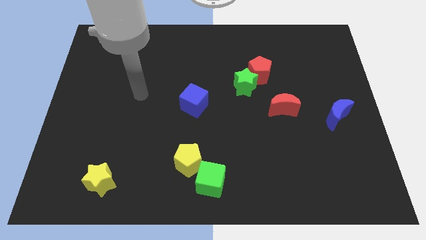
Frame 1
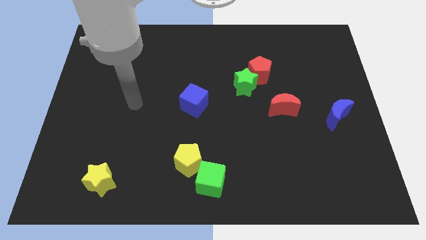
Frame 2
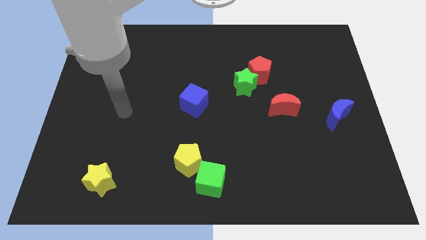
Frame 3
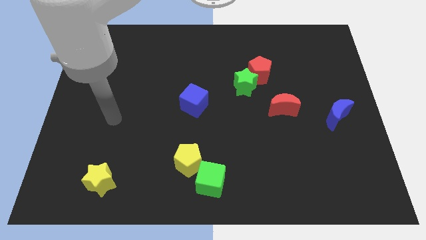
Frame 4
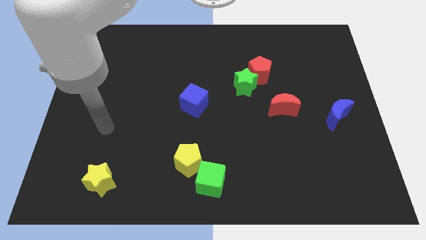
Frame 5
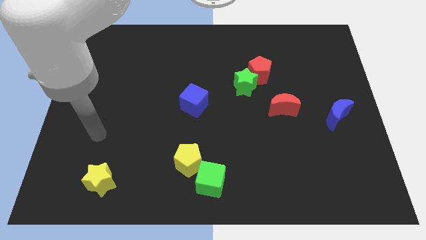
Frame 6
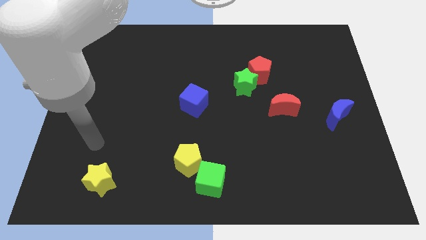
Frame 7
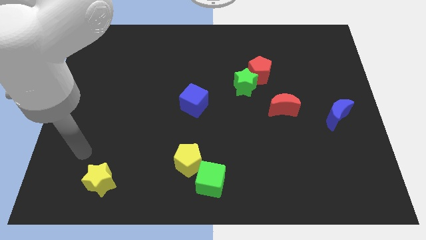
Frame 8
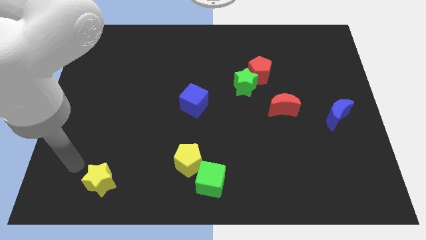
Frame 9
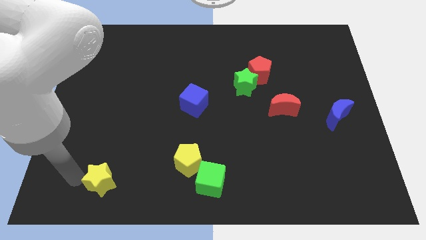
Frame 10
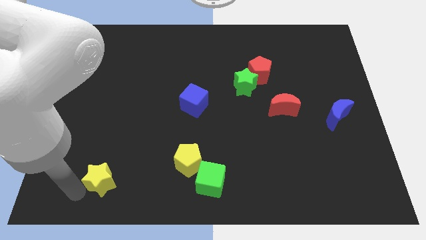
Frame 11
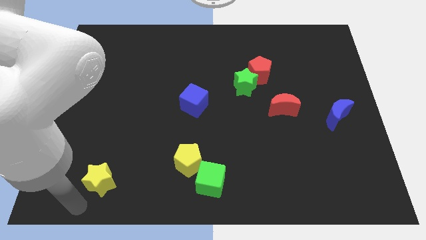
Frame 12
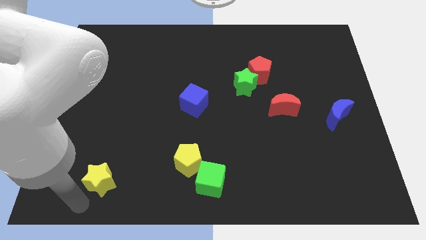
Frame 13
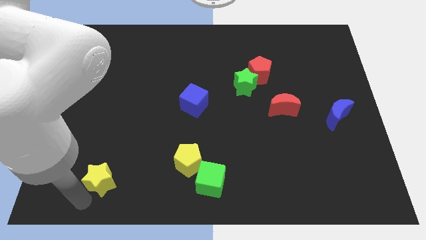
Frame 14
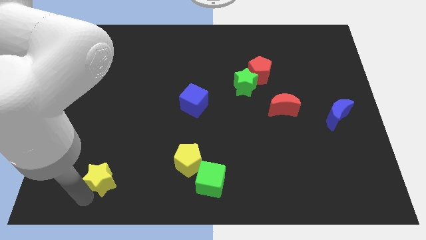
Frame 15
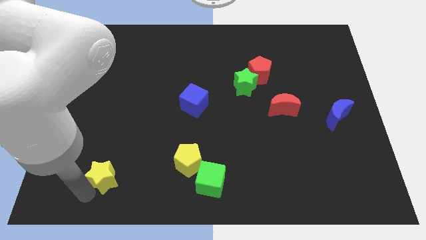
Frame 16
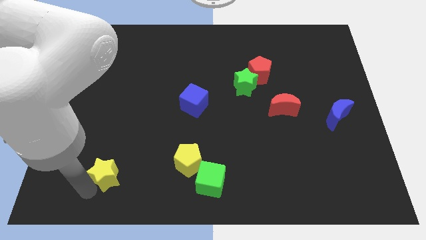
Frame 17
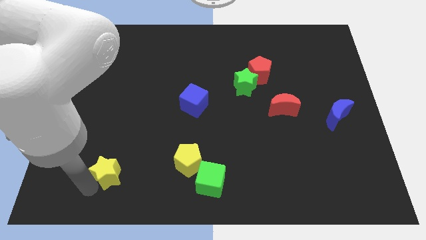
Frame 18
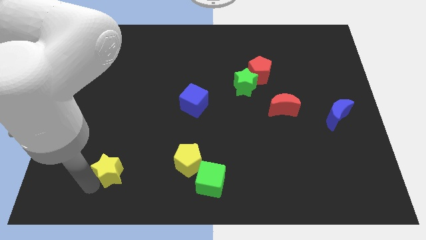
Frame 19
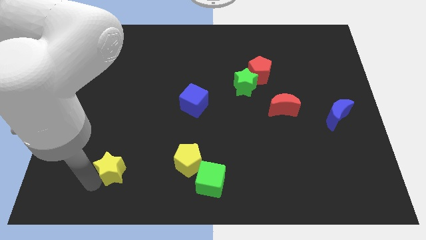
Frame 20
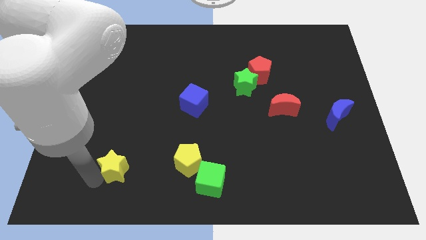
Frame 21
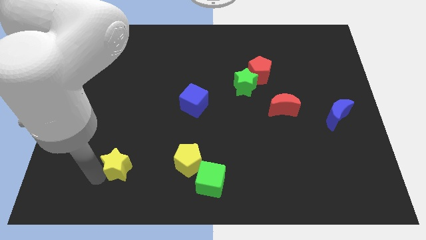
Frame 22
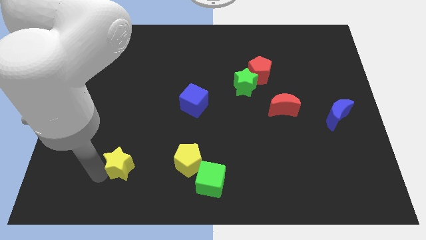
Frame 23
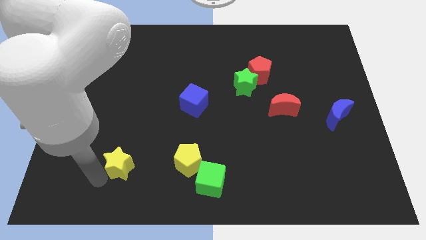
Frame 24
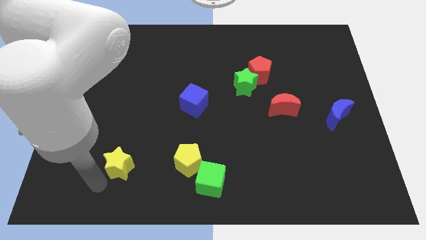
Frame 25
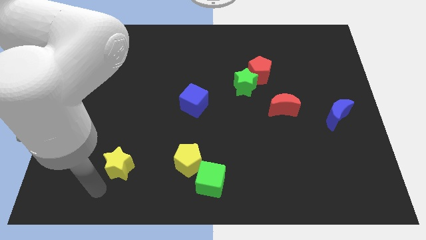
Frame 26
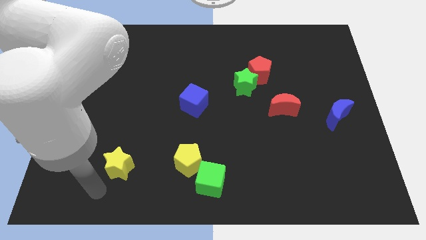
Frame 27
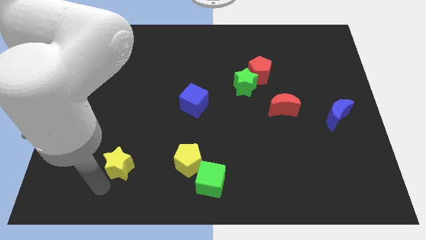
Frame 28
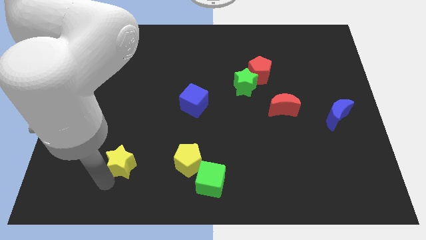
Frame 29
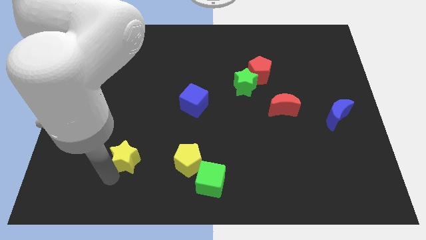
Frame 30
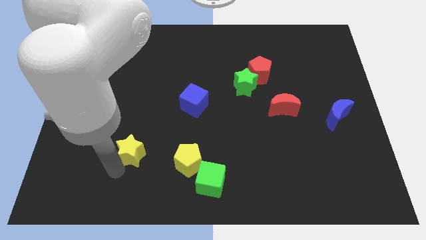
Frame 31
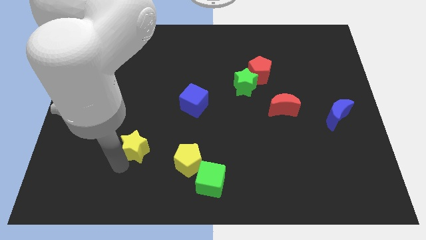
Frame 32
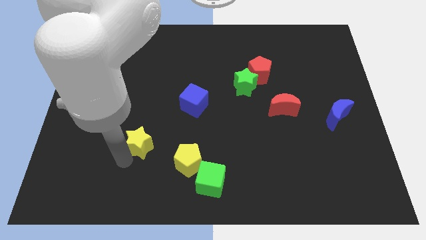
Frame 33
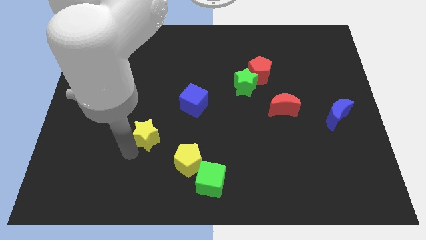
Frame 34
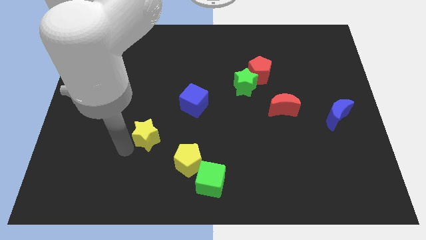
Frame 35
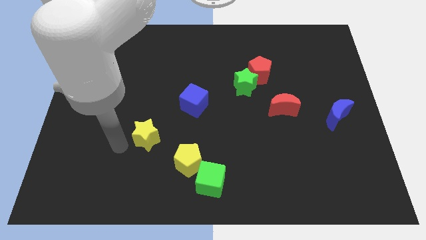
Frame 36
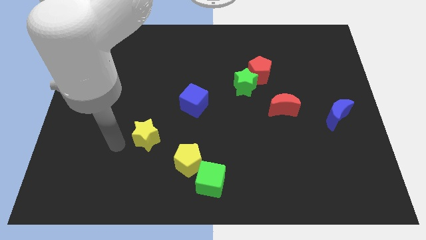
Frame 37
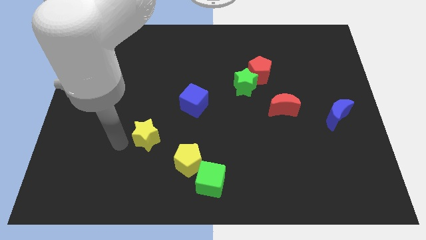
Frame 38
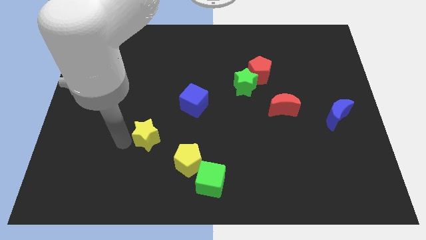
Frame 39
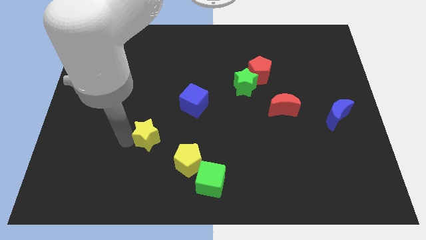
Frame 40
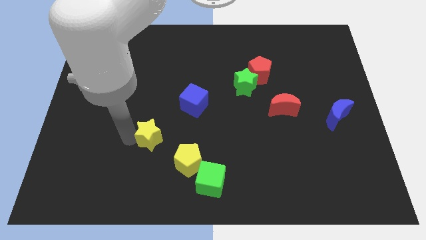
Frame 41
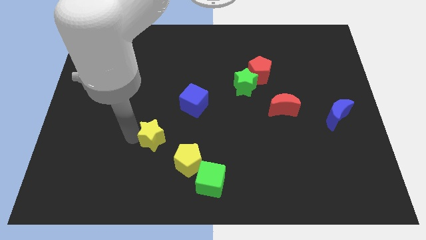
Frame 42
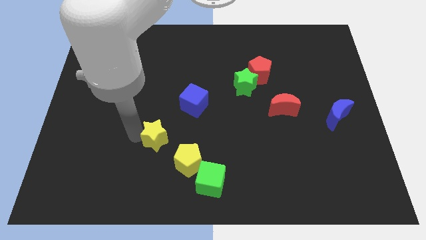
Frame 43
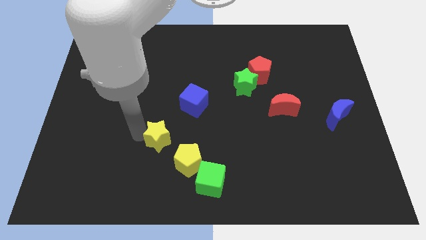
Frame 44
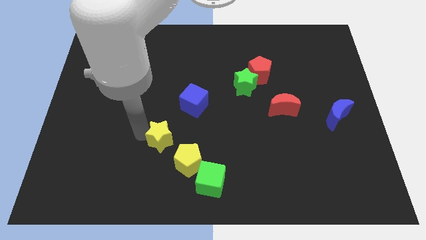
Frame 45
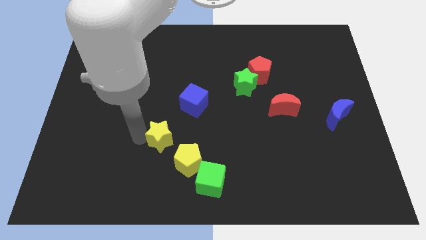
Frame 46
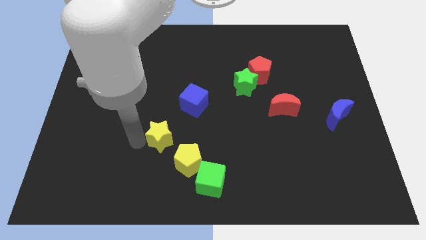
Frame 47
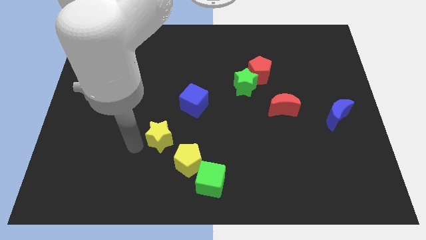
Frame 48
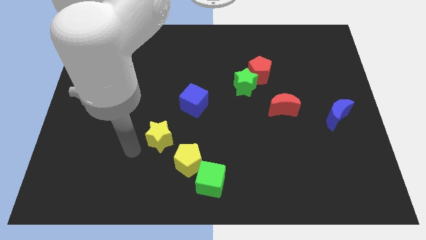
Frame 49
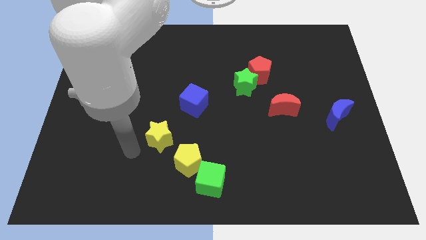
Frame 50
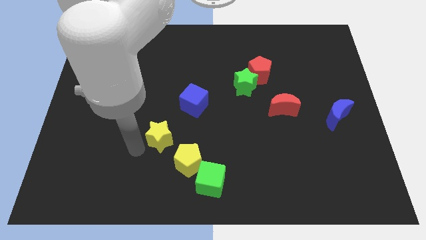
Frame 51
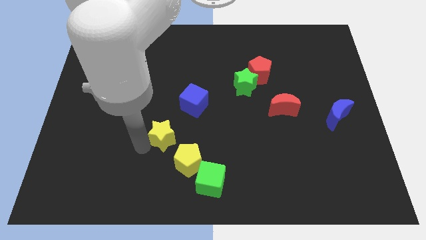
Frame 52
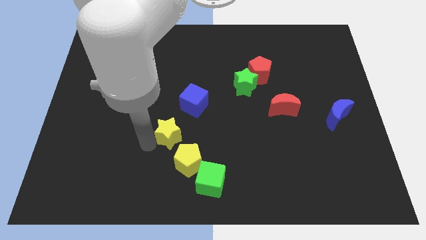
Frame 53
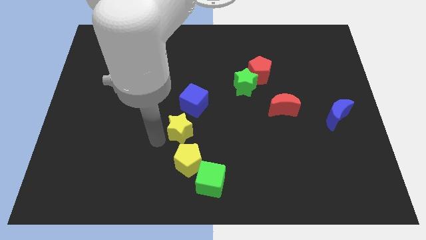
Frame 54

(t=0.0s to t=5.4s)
push the yellow star to the middle of the board

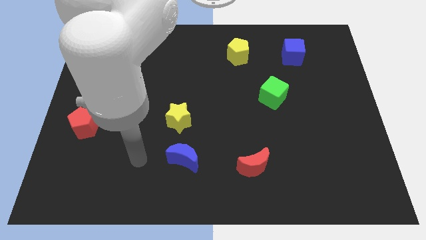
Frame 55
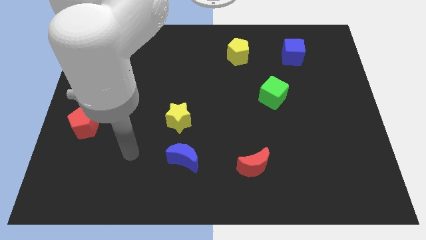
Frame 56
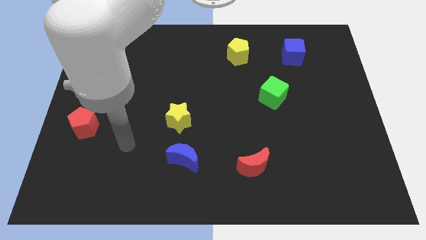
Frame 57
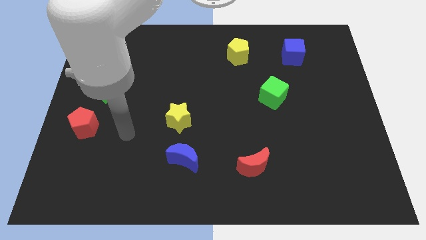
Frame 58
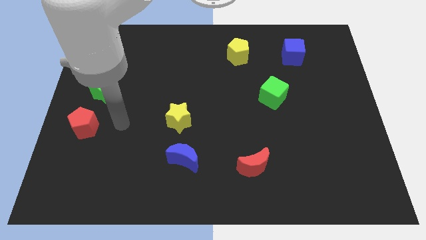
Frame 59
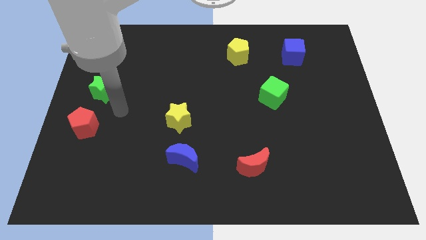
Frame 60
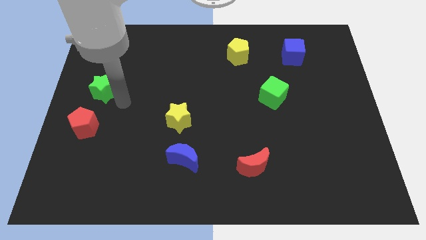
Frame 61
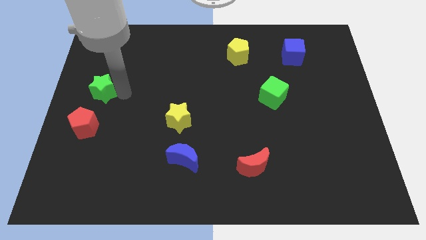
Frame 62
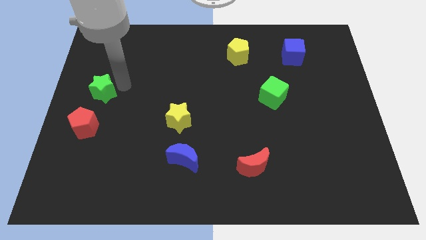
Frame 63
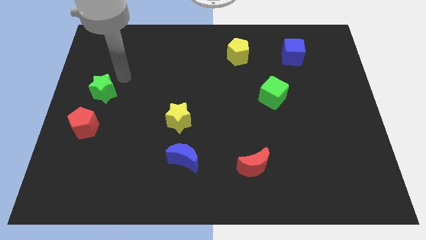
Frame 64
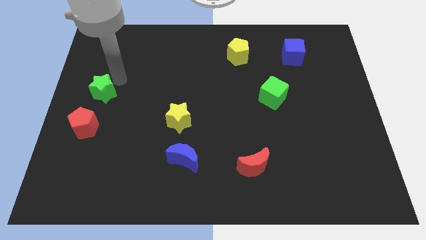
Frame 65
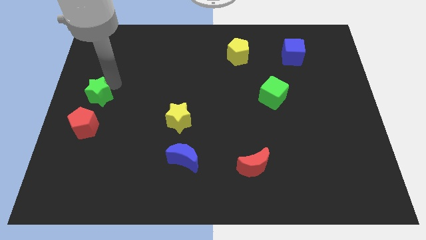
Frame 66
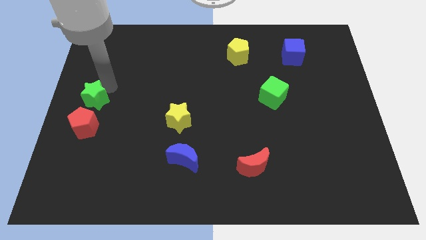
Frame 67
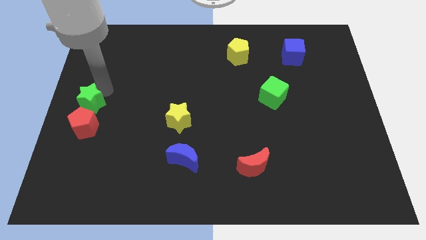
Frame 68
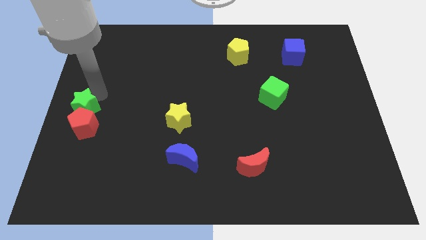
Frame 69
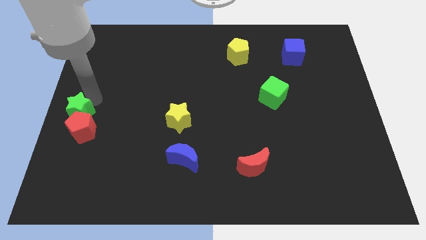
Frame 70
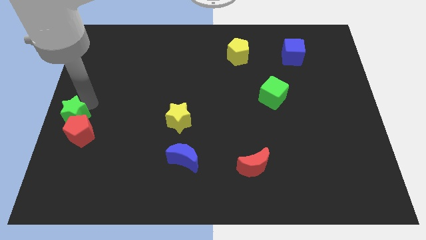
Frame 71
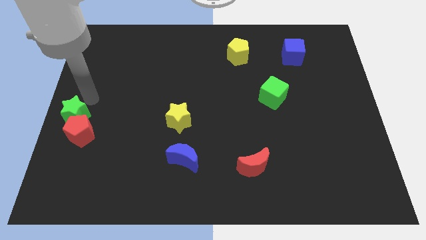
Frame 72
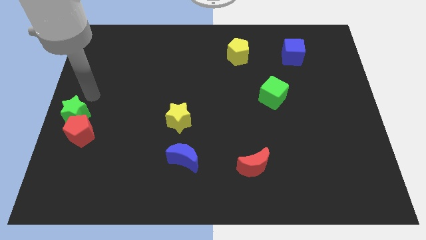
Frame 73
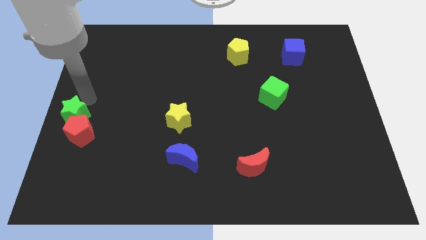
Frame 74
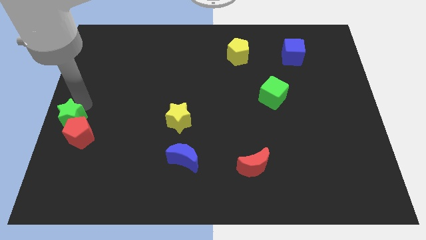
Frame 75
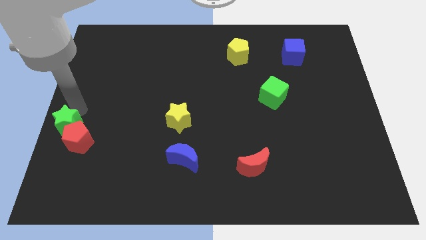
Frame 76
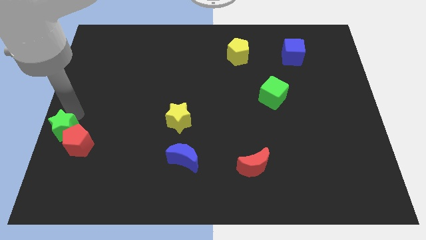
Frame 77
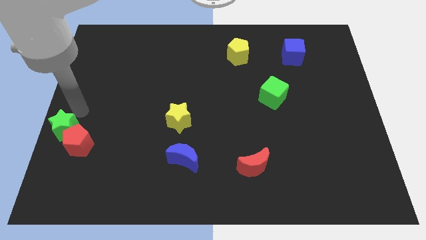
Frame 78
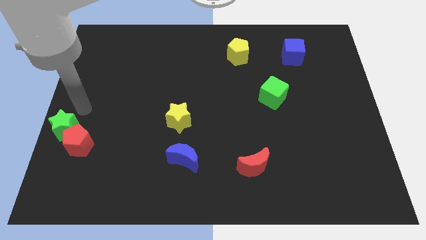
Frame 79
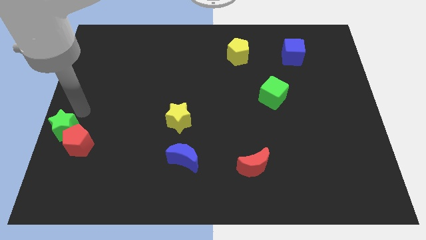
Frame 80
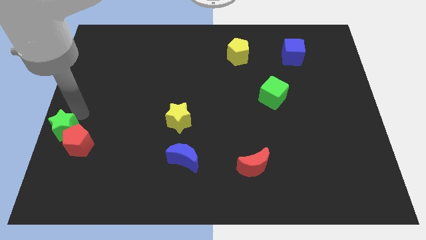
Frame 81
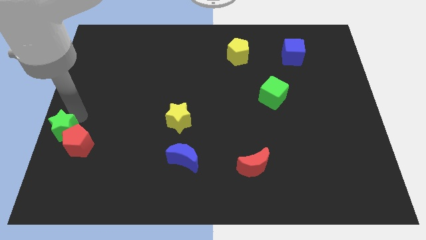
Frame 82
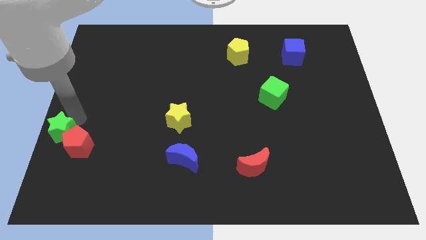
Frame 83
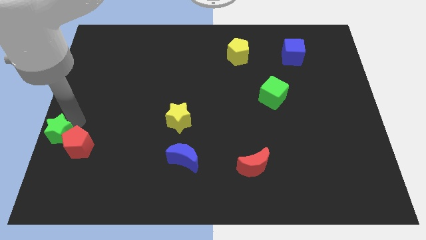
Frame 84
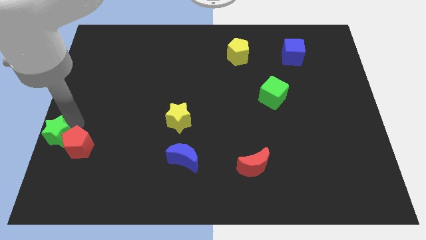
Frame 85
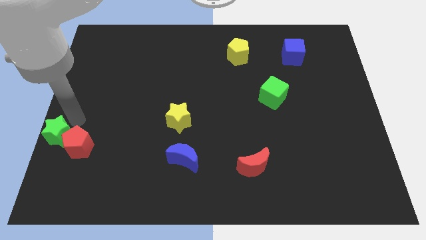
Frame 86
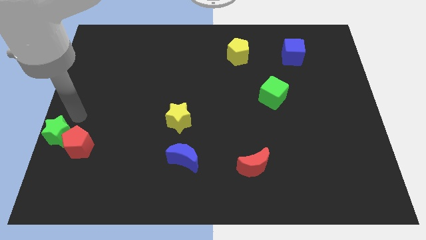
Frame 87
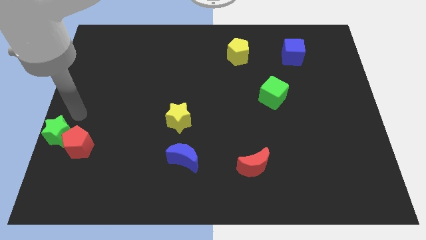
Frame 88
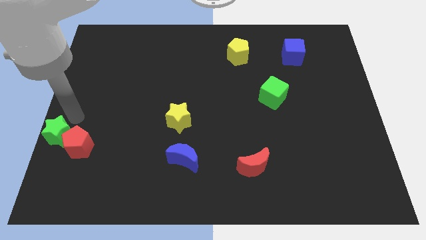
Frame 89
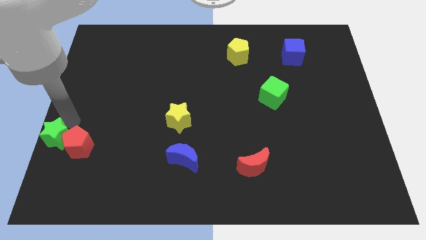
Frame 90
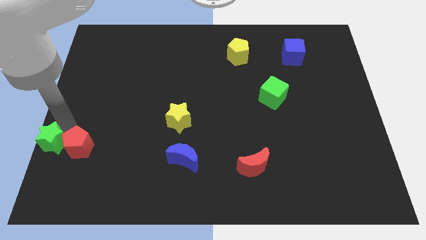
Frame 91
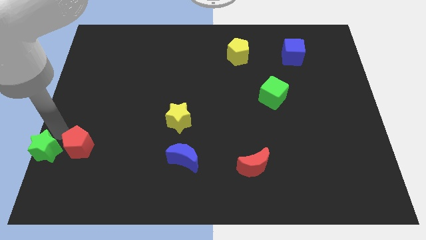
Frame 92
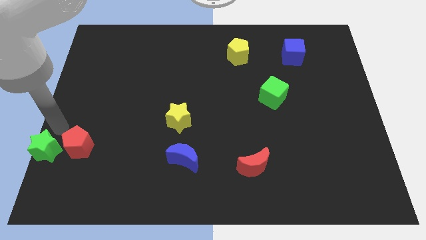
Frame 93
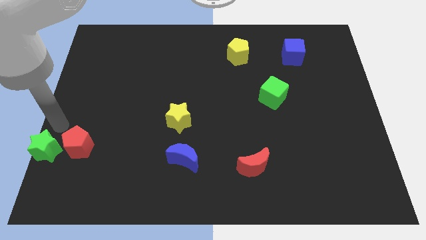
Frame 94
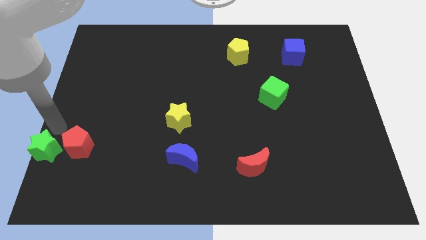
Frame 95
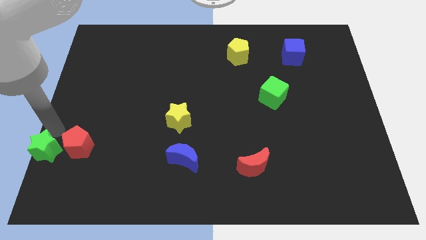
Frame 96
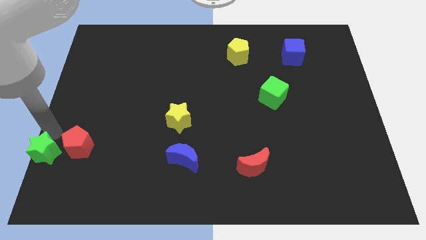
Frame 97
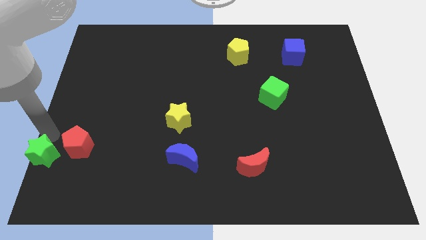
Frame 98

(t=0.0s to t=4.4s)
move the green star to the bottom left
